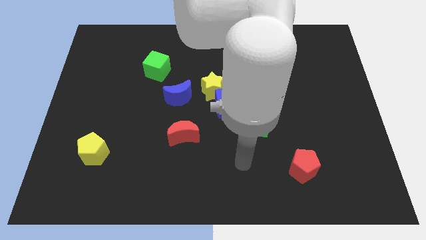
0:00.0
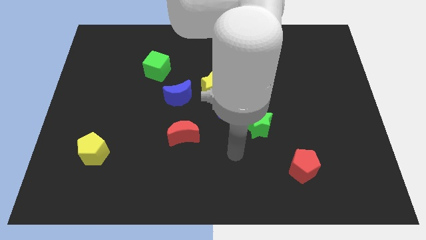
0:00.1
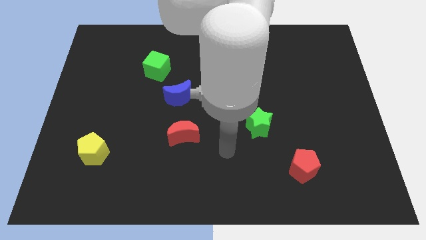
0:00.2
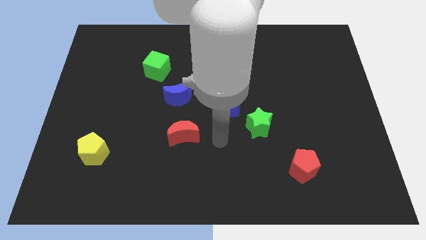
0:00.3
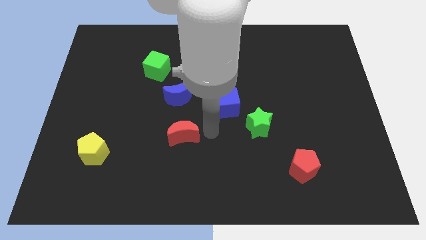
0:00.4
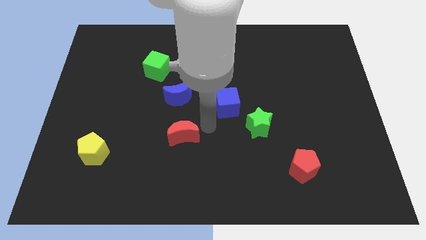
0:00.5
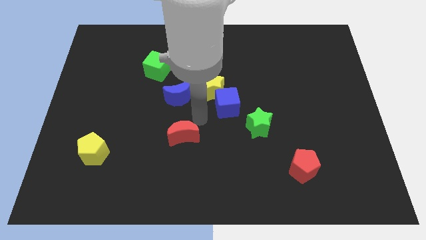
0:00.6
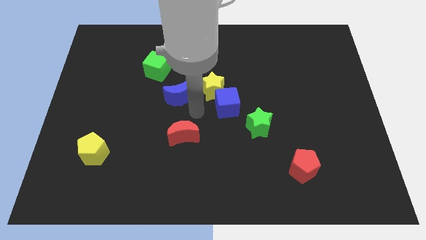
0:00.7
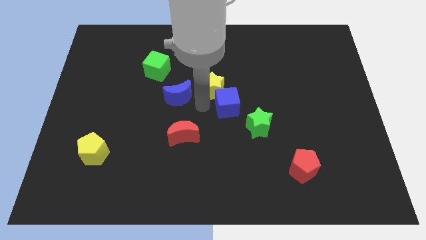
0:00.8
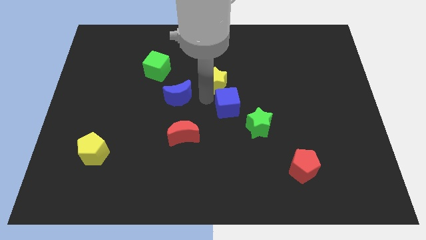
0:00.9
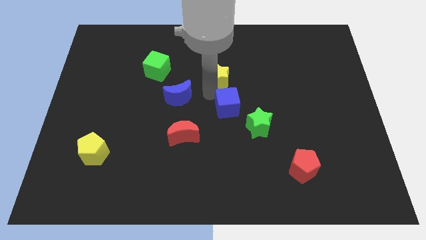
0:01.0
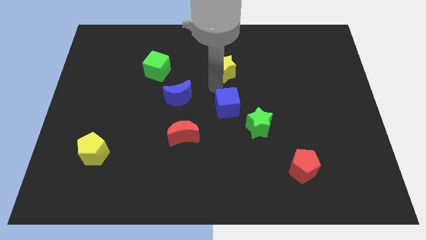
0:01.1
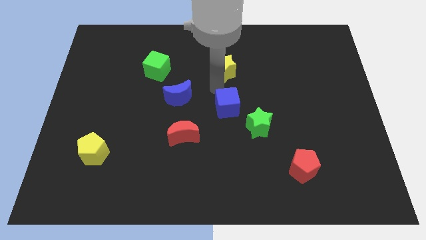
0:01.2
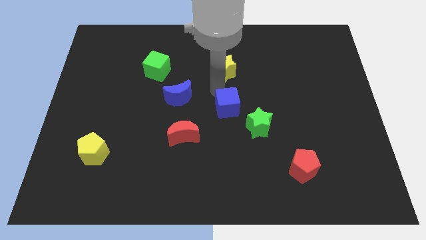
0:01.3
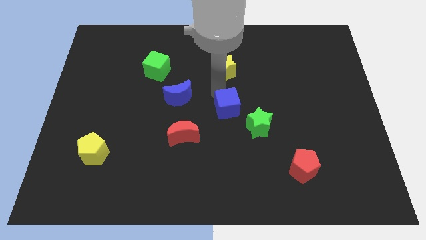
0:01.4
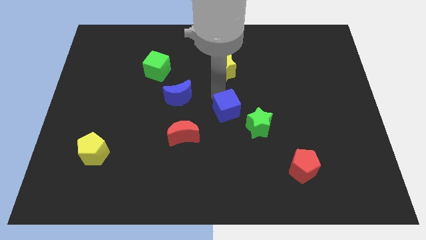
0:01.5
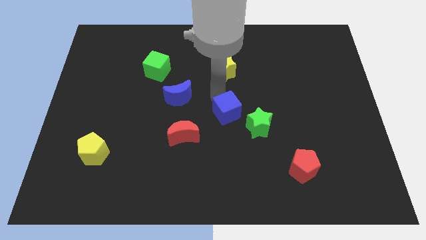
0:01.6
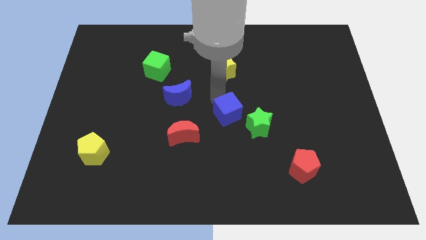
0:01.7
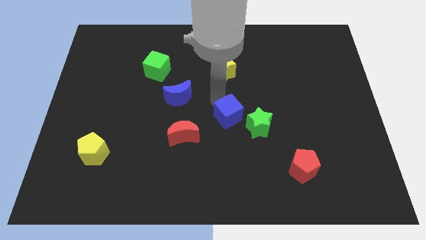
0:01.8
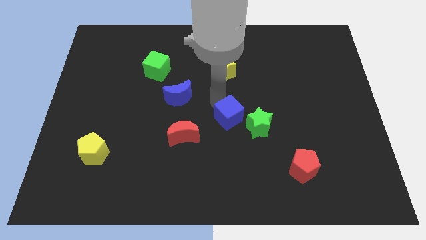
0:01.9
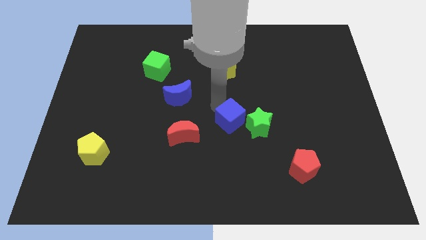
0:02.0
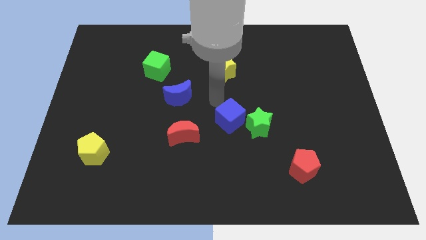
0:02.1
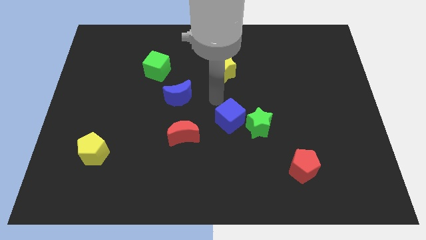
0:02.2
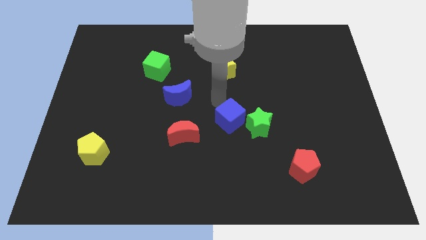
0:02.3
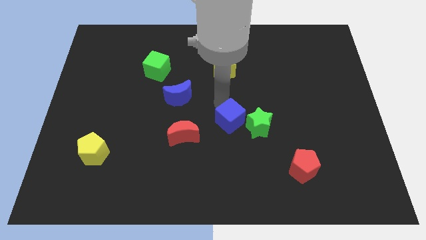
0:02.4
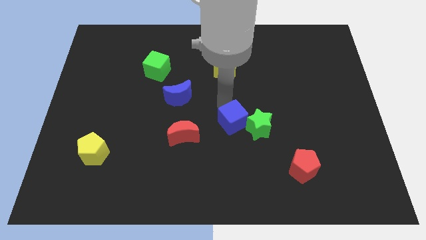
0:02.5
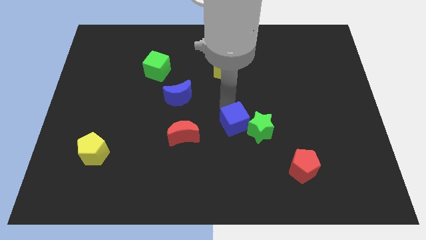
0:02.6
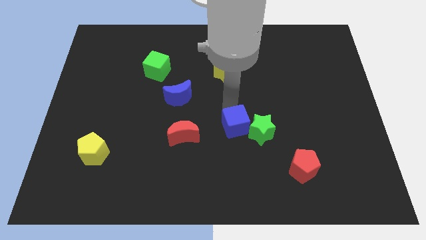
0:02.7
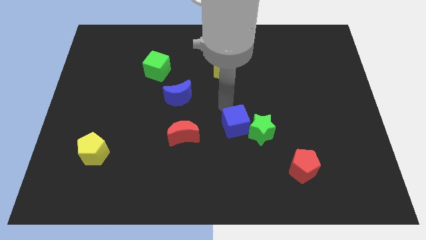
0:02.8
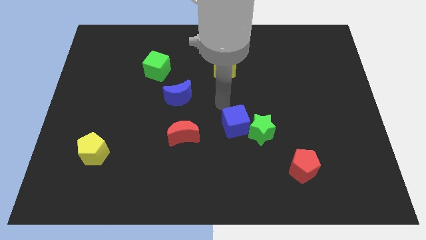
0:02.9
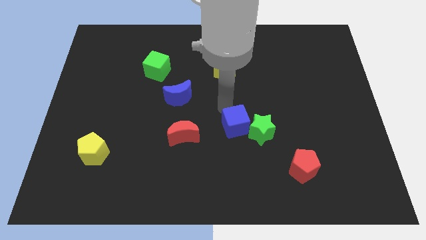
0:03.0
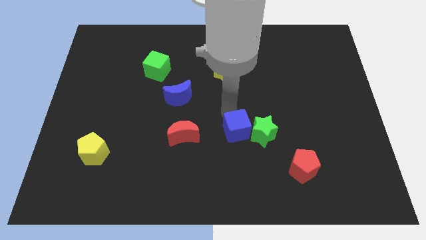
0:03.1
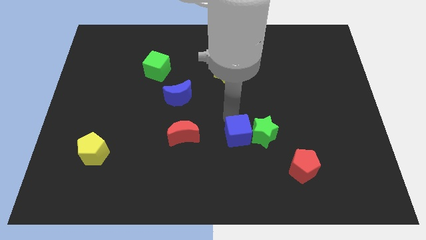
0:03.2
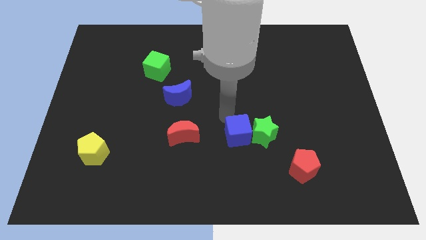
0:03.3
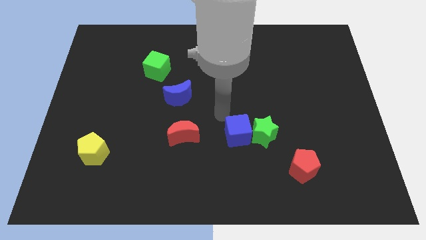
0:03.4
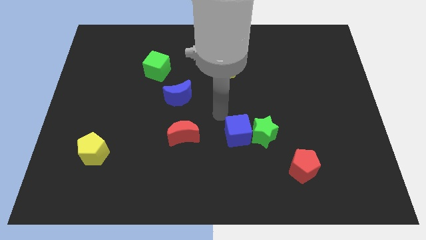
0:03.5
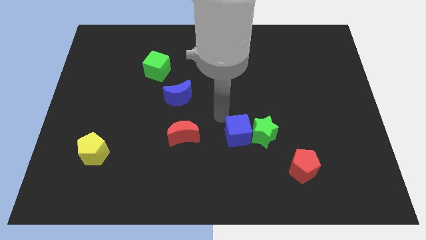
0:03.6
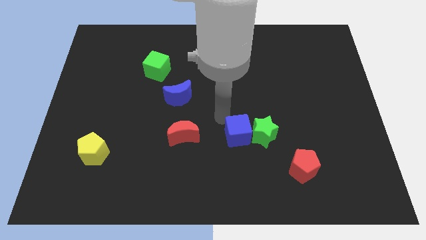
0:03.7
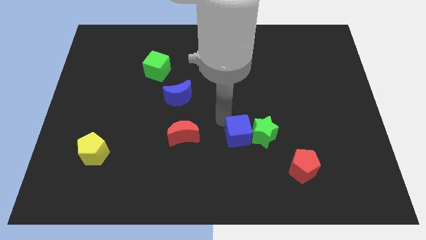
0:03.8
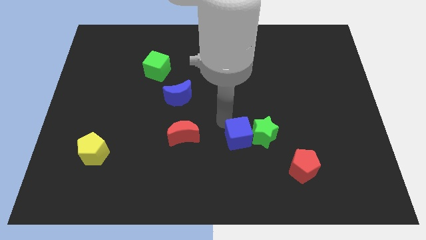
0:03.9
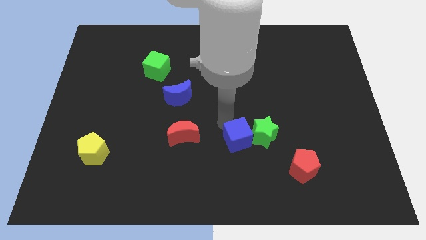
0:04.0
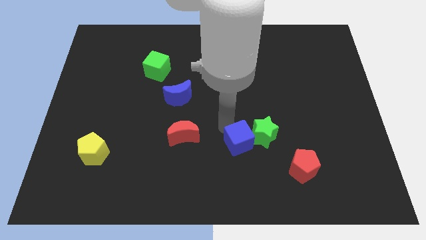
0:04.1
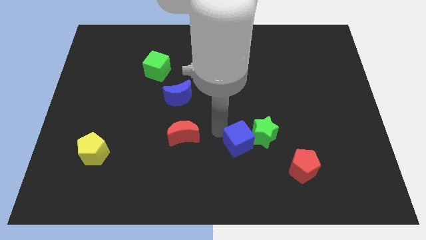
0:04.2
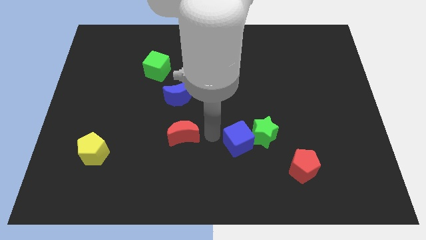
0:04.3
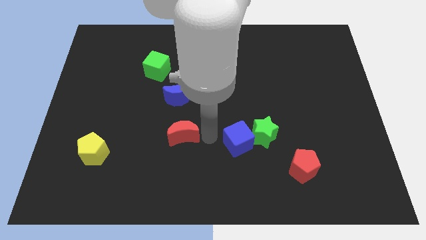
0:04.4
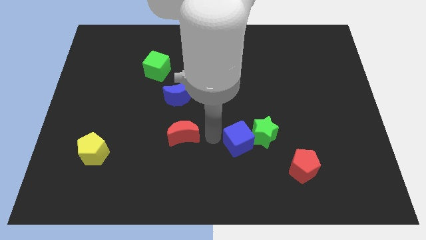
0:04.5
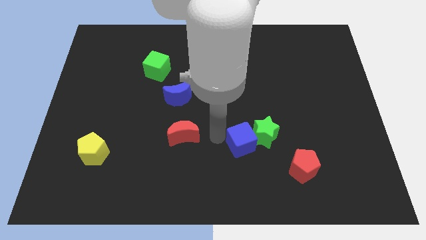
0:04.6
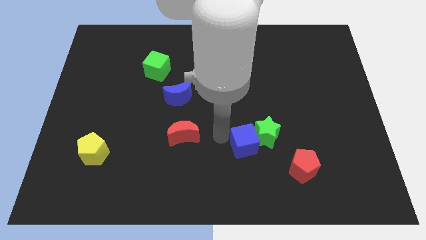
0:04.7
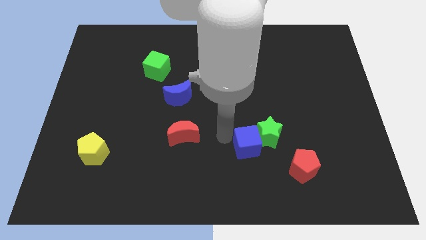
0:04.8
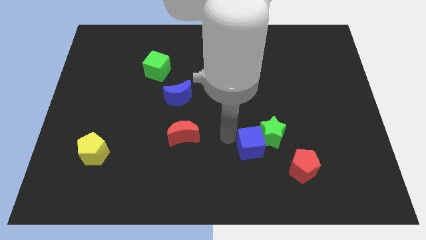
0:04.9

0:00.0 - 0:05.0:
put the blue cube to the top left side of the red pentagon

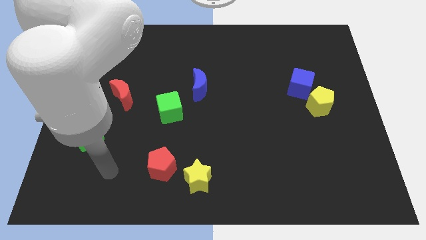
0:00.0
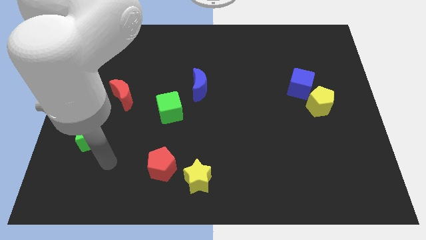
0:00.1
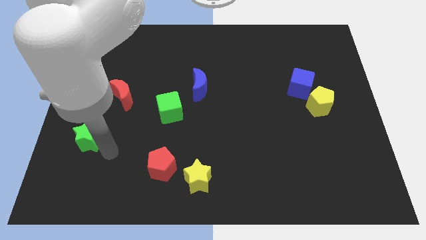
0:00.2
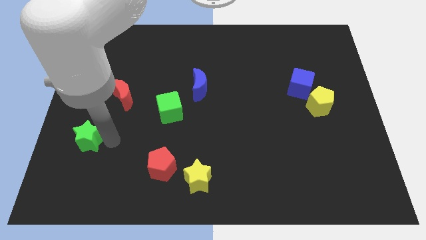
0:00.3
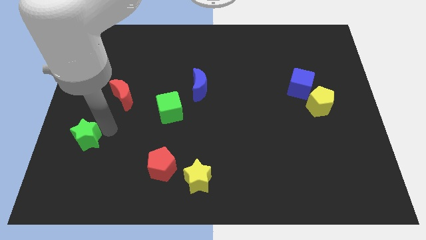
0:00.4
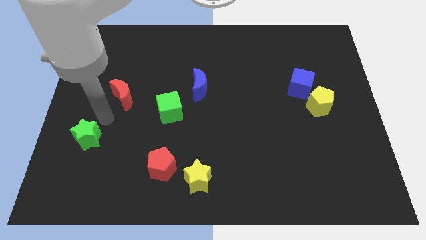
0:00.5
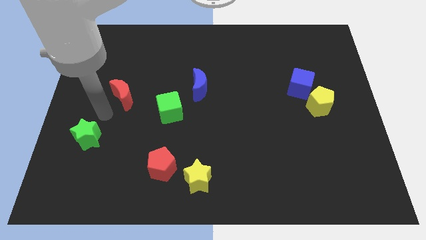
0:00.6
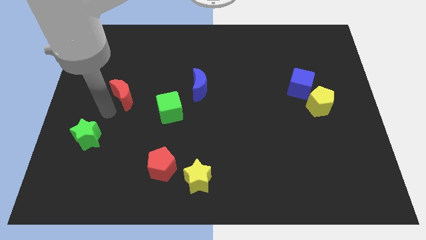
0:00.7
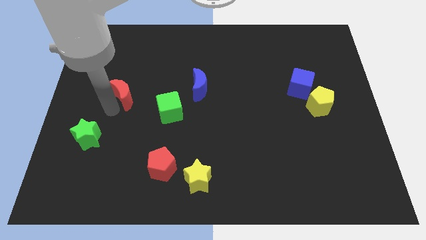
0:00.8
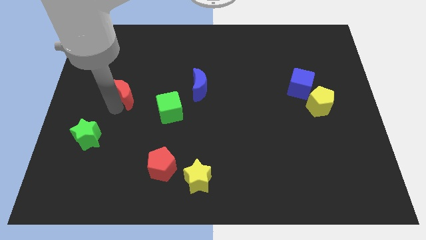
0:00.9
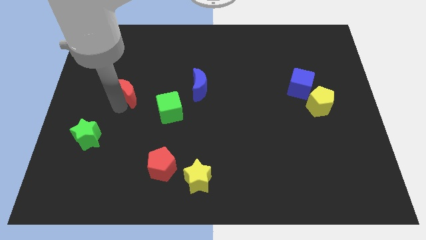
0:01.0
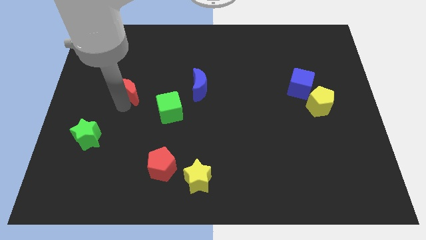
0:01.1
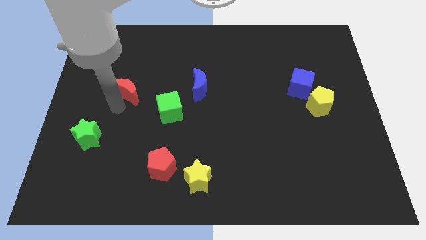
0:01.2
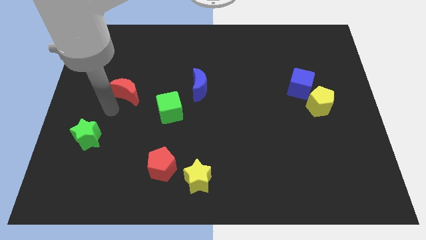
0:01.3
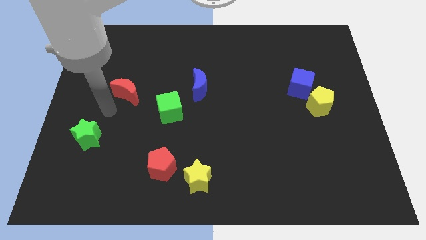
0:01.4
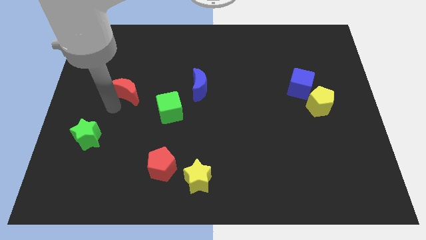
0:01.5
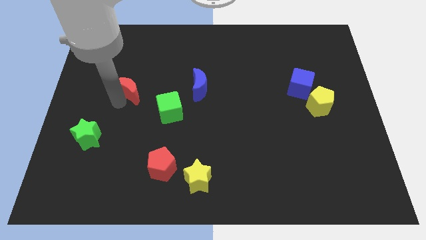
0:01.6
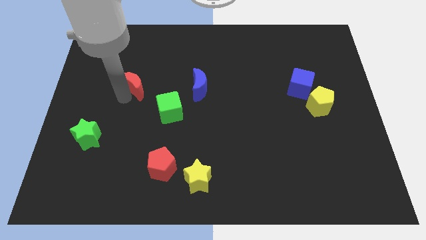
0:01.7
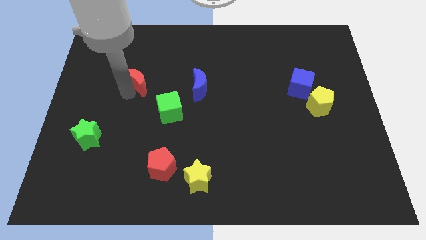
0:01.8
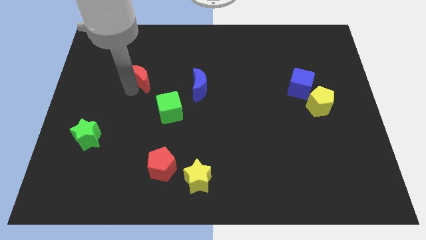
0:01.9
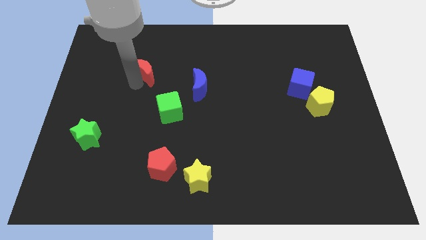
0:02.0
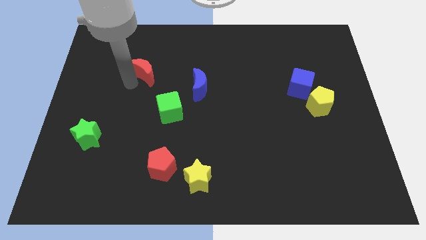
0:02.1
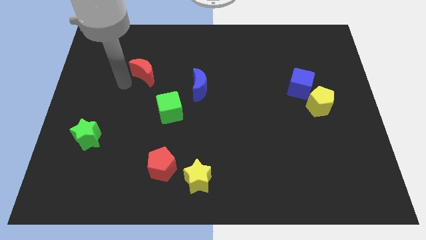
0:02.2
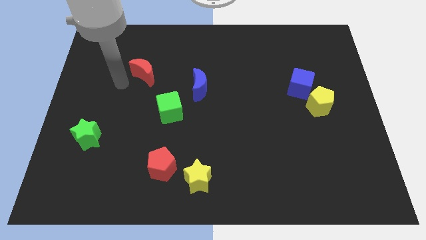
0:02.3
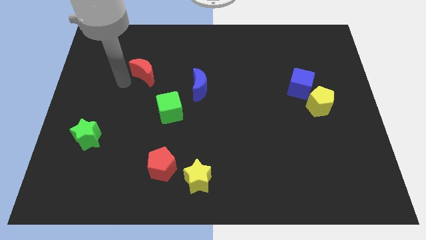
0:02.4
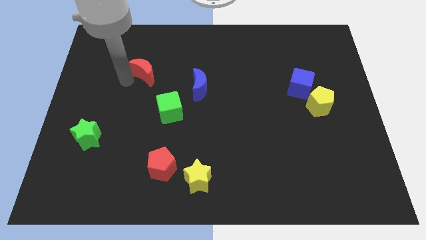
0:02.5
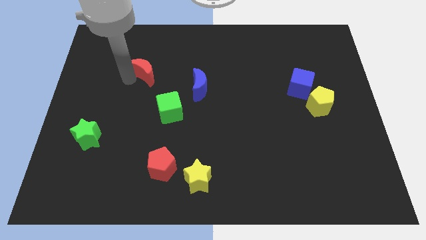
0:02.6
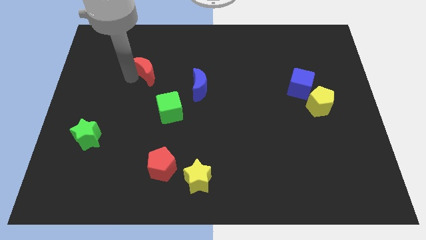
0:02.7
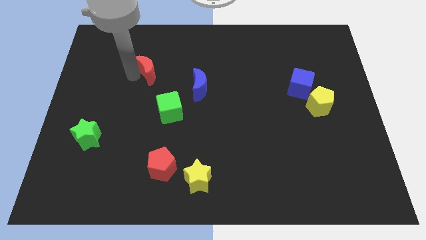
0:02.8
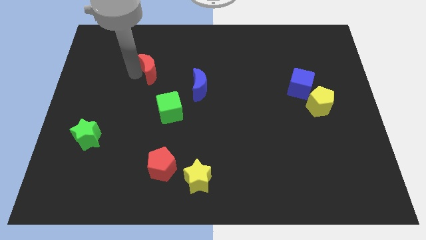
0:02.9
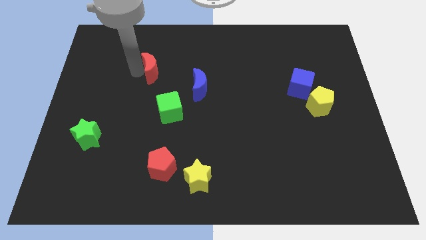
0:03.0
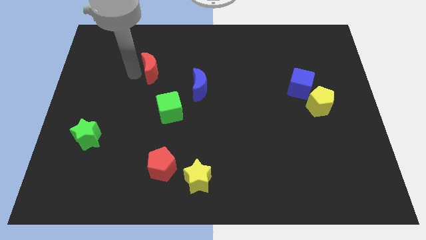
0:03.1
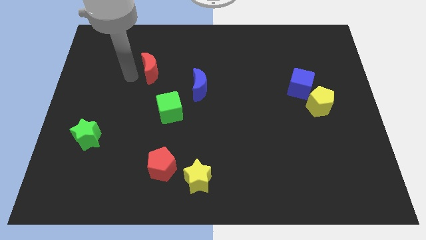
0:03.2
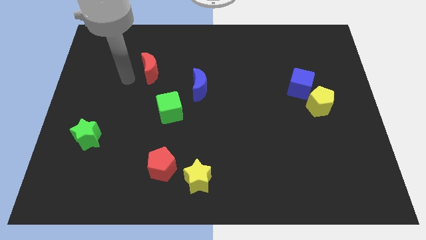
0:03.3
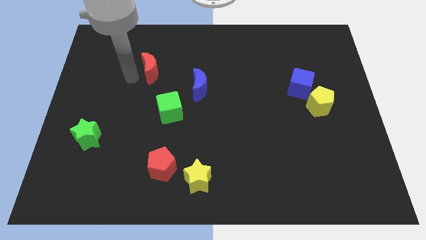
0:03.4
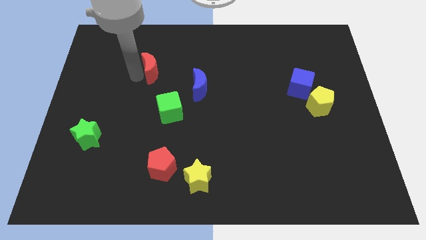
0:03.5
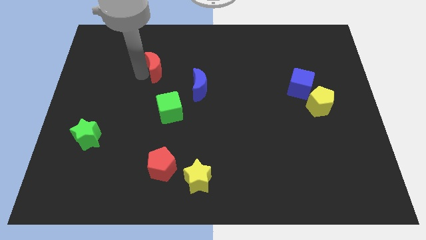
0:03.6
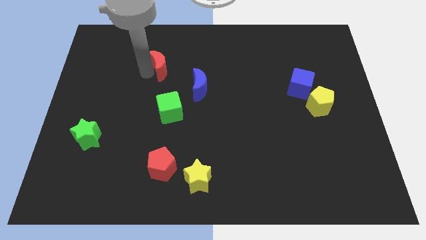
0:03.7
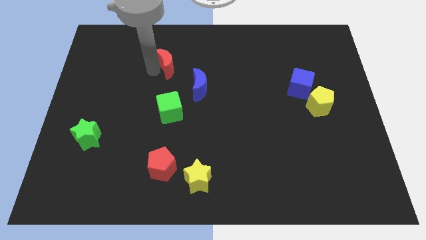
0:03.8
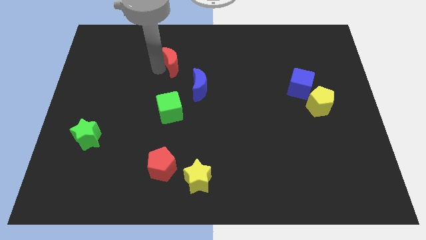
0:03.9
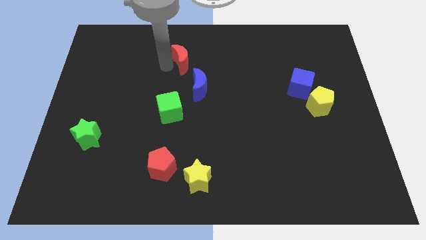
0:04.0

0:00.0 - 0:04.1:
slide the red moon to the top of the blue moon
